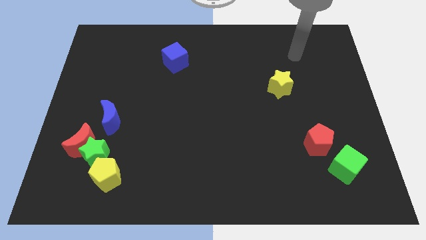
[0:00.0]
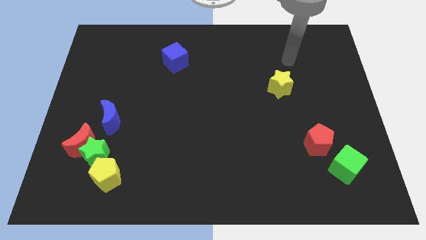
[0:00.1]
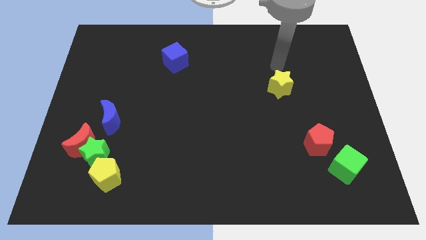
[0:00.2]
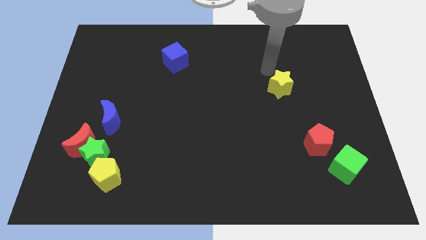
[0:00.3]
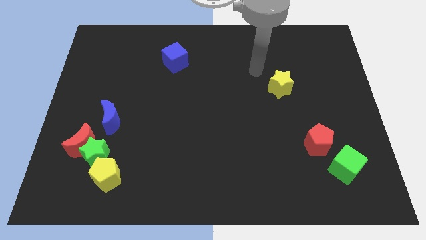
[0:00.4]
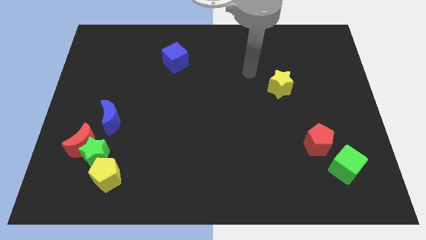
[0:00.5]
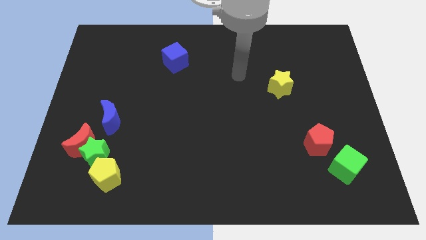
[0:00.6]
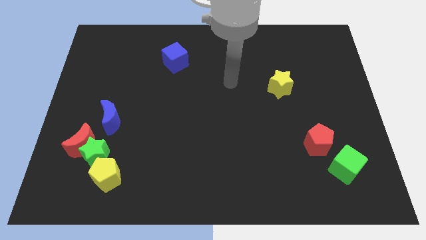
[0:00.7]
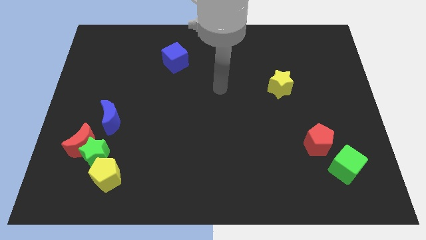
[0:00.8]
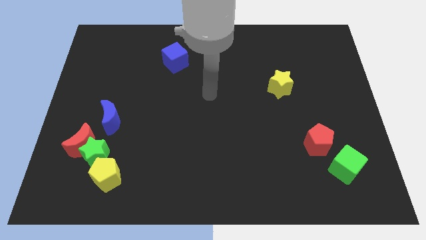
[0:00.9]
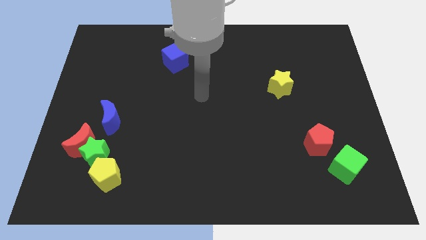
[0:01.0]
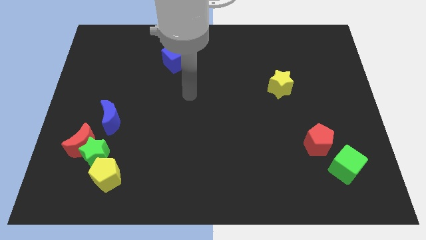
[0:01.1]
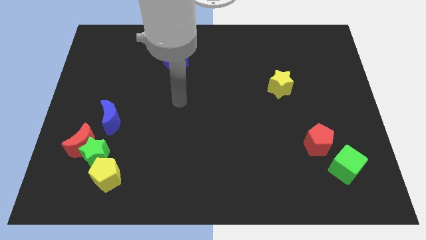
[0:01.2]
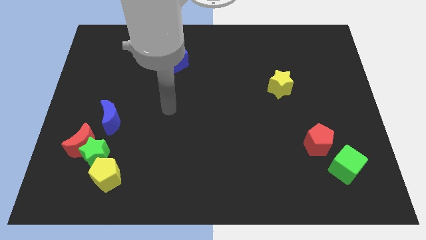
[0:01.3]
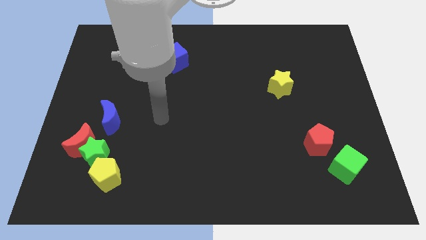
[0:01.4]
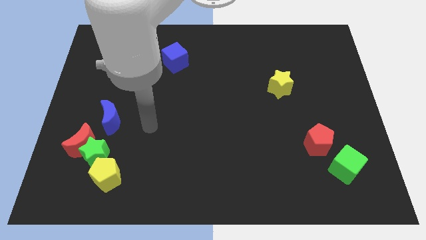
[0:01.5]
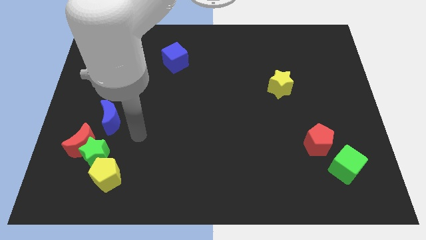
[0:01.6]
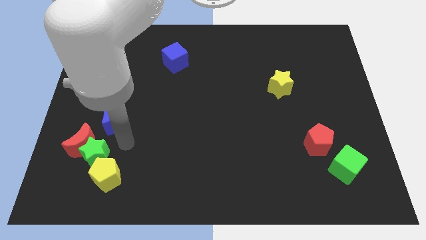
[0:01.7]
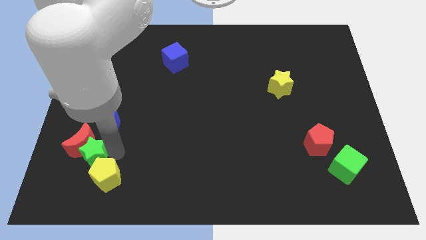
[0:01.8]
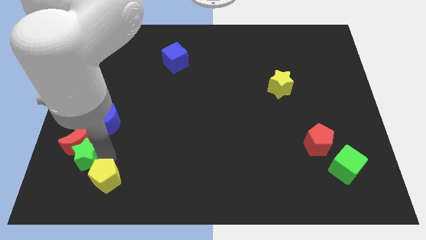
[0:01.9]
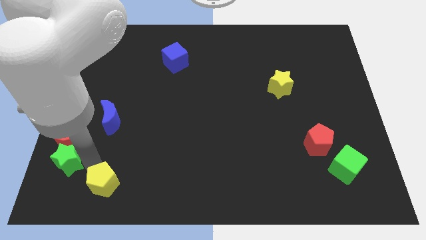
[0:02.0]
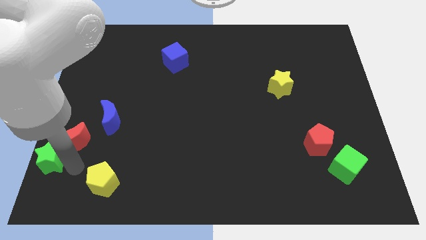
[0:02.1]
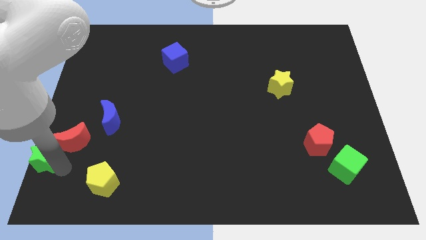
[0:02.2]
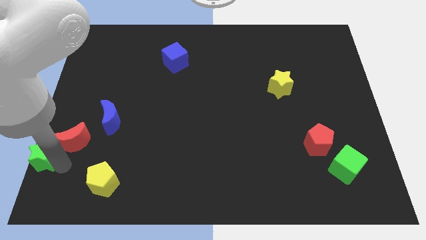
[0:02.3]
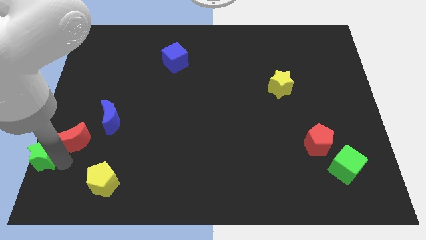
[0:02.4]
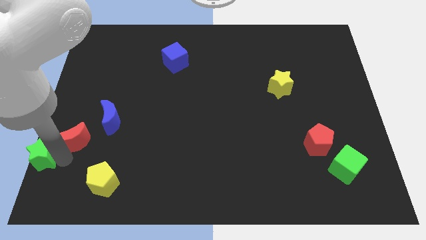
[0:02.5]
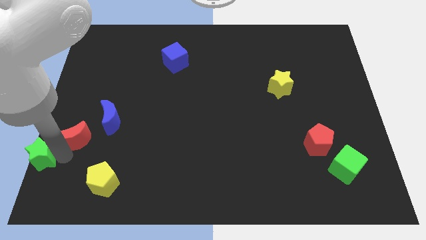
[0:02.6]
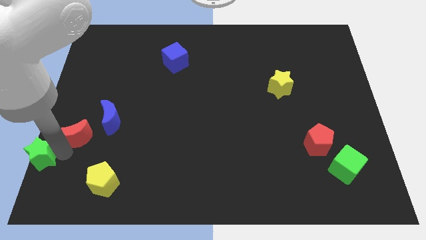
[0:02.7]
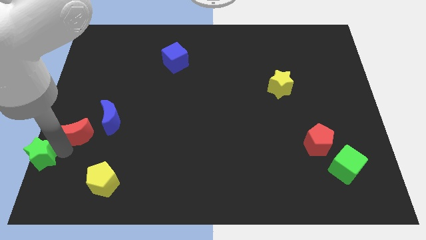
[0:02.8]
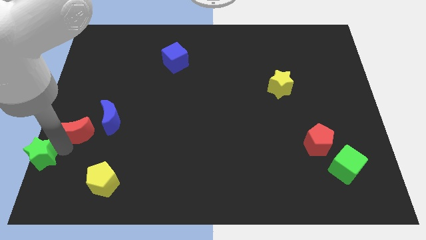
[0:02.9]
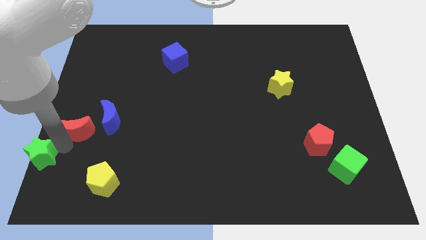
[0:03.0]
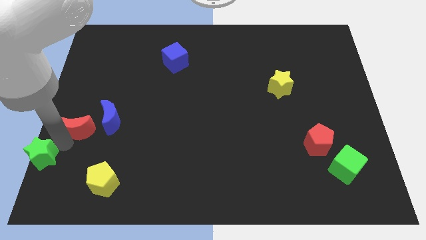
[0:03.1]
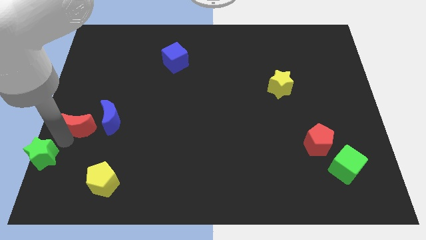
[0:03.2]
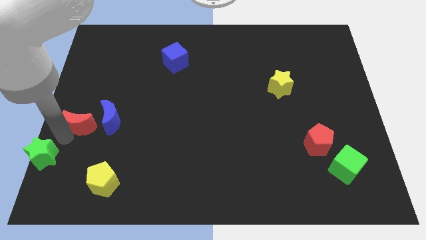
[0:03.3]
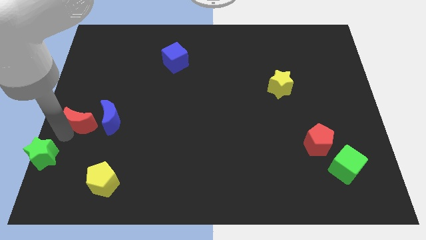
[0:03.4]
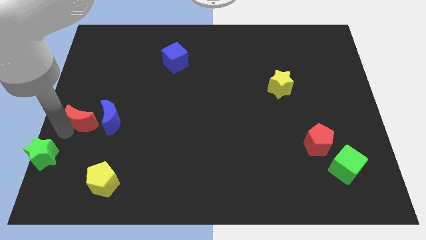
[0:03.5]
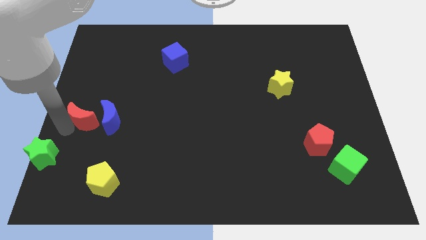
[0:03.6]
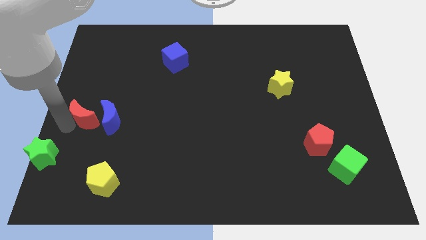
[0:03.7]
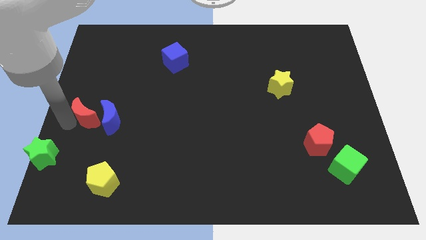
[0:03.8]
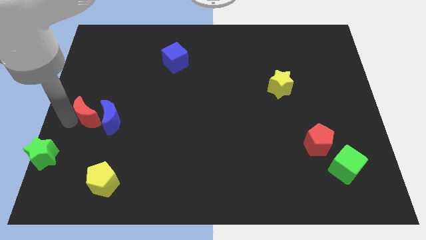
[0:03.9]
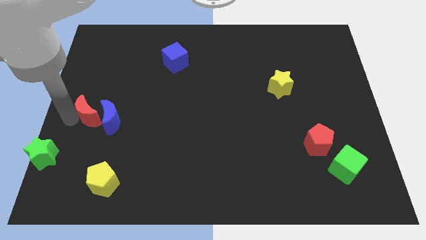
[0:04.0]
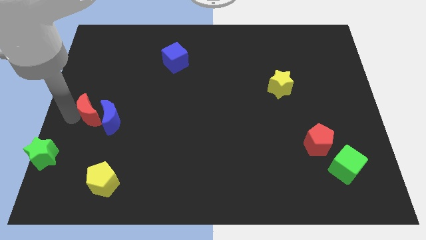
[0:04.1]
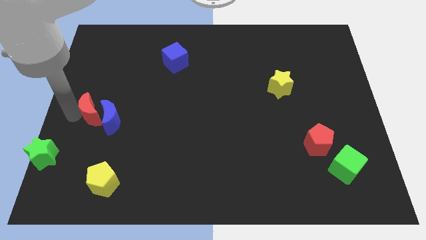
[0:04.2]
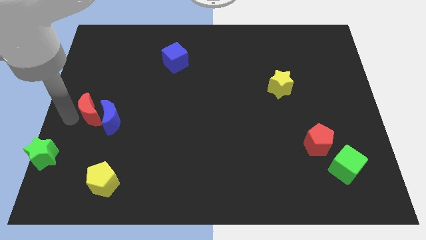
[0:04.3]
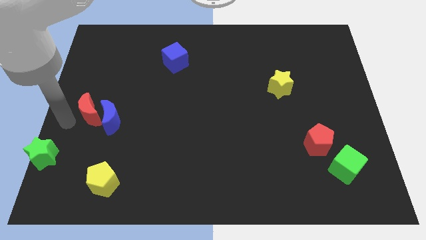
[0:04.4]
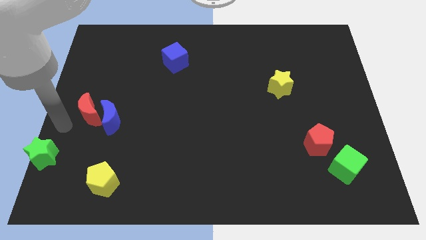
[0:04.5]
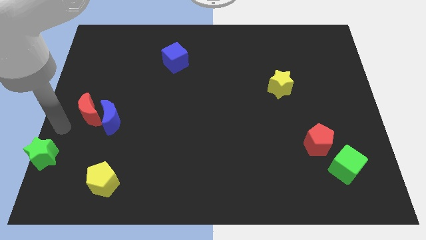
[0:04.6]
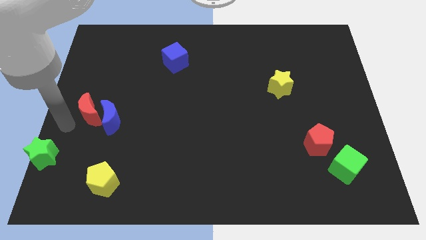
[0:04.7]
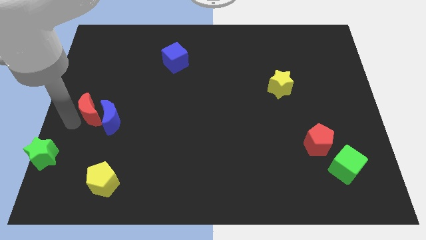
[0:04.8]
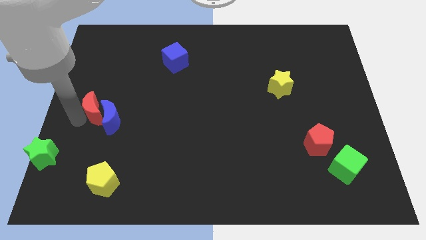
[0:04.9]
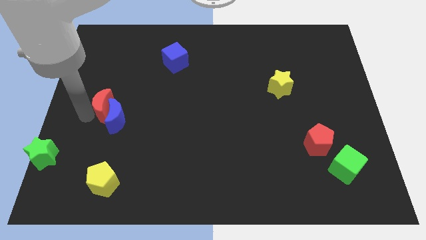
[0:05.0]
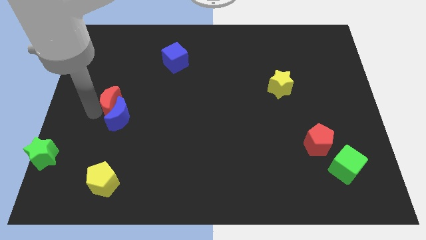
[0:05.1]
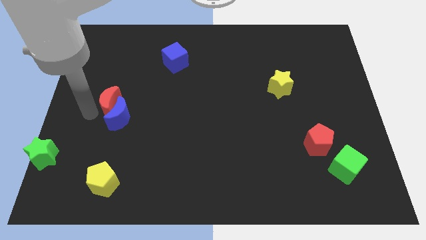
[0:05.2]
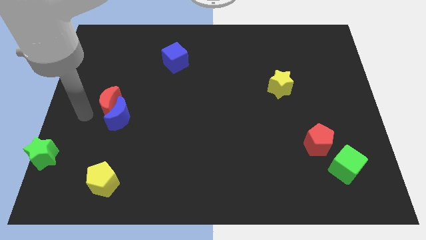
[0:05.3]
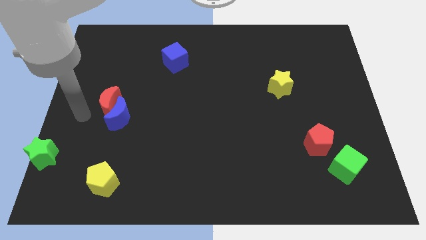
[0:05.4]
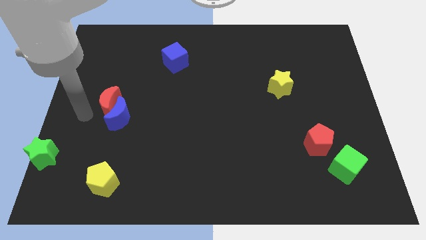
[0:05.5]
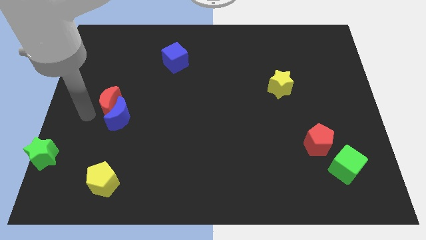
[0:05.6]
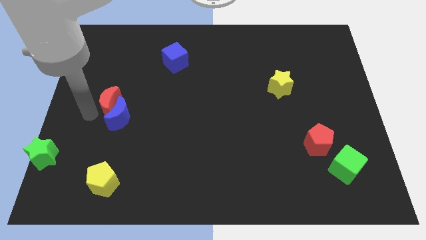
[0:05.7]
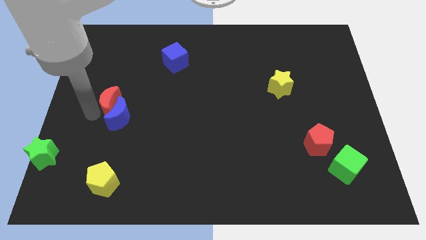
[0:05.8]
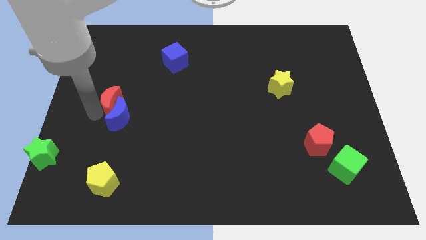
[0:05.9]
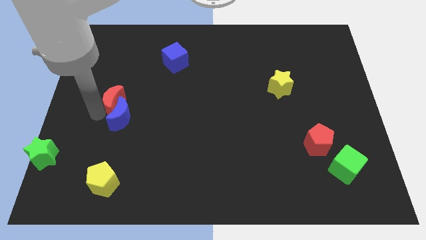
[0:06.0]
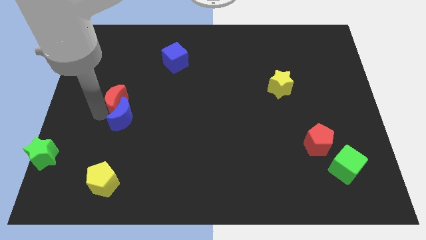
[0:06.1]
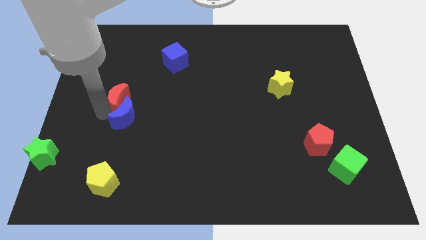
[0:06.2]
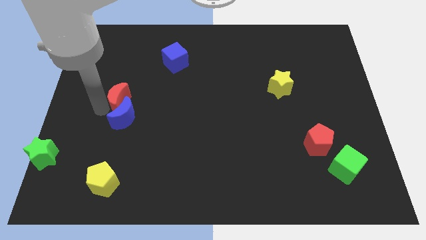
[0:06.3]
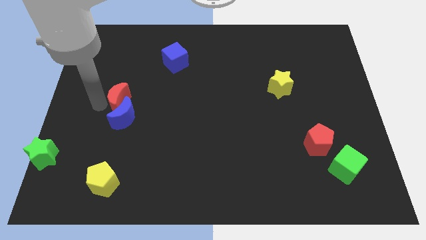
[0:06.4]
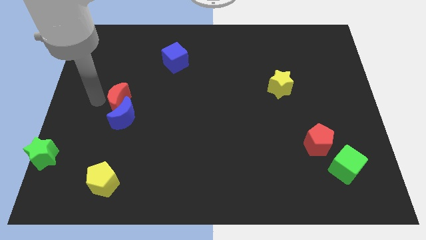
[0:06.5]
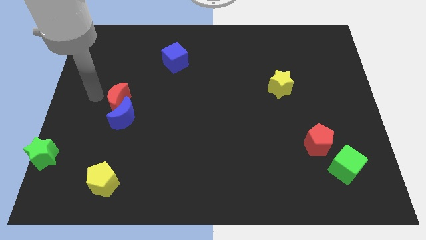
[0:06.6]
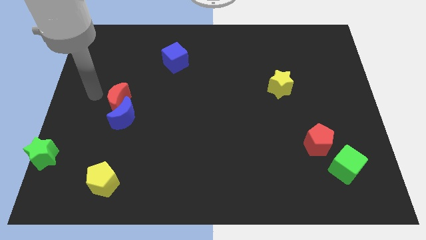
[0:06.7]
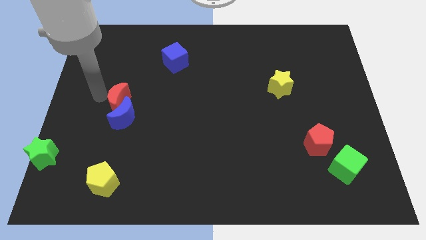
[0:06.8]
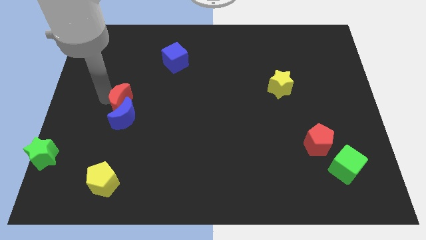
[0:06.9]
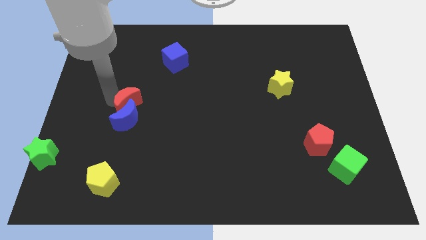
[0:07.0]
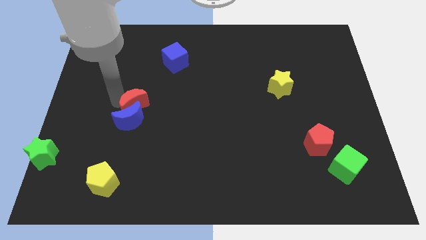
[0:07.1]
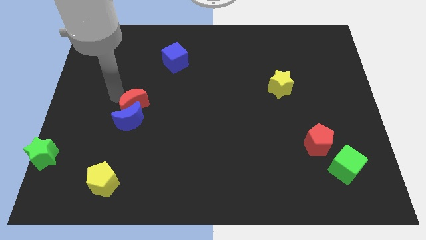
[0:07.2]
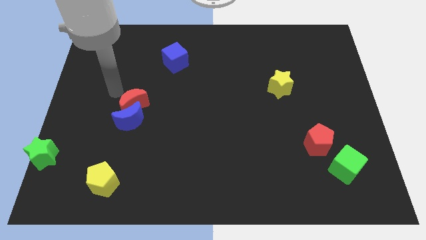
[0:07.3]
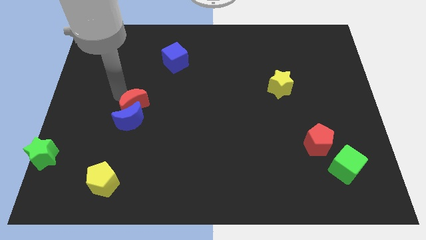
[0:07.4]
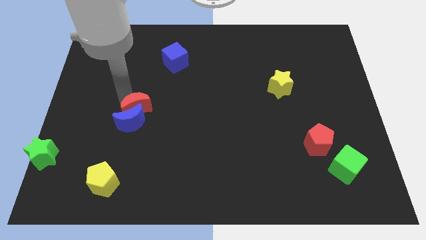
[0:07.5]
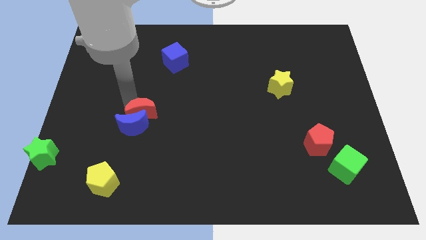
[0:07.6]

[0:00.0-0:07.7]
slightly move the red moon right

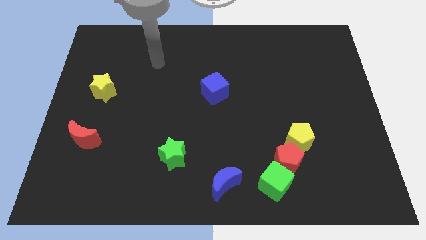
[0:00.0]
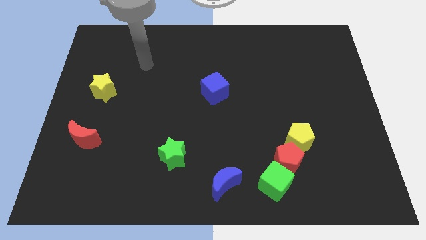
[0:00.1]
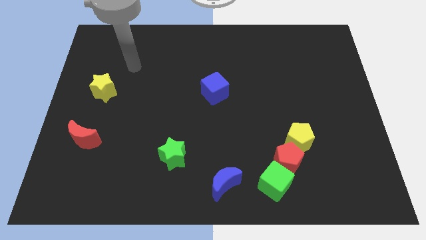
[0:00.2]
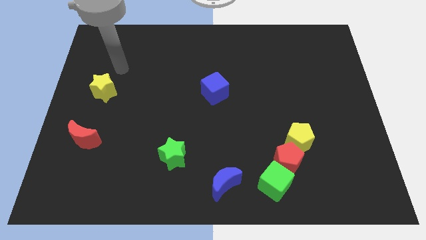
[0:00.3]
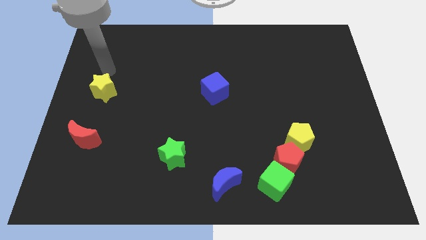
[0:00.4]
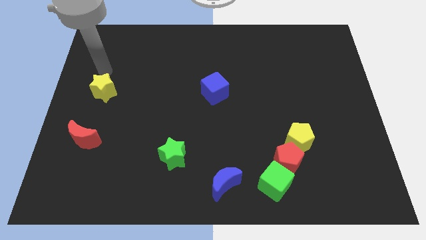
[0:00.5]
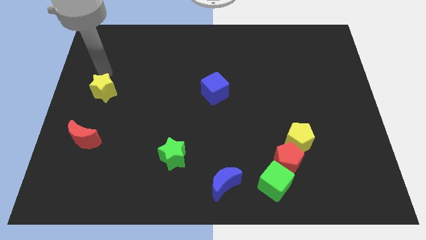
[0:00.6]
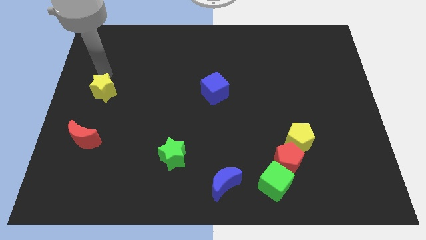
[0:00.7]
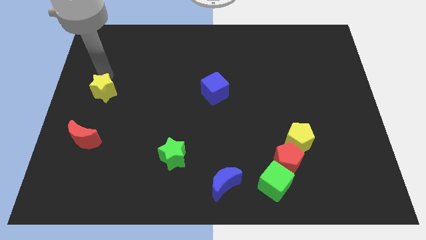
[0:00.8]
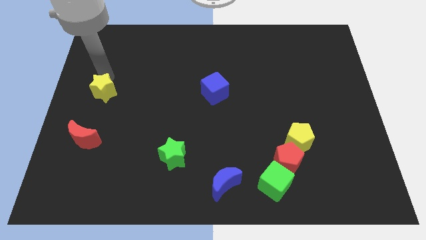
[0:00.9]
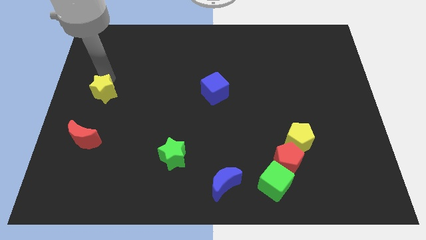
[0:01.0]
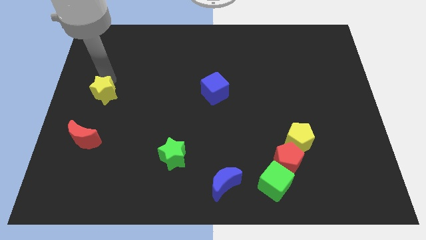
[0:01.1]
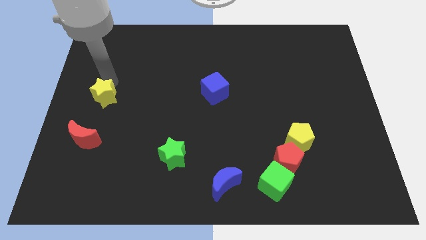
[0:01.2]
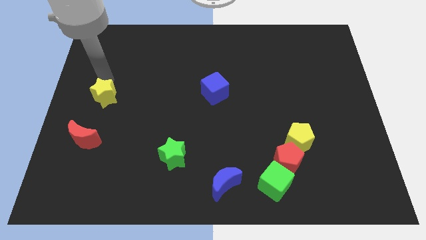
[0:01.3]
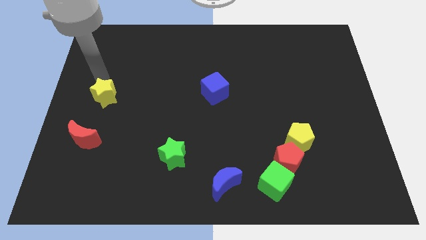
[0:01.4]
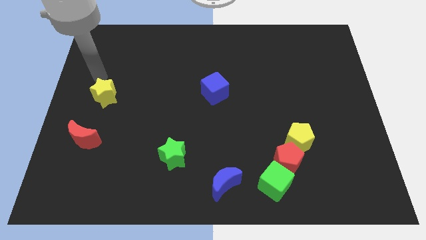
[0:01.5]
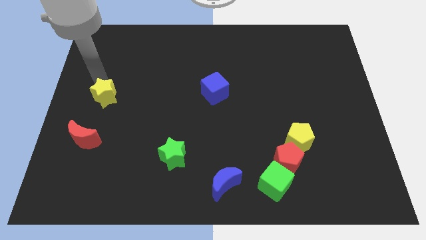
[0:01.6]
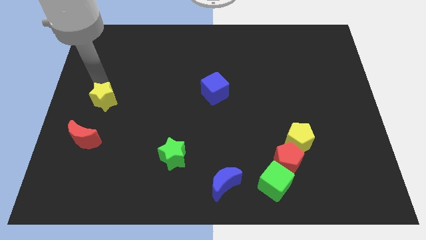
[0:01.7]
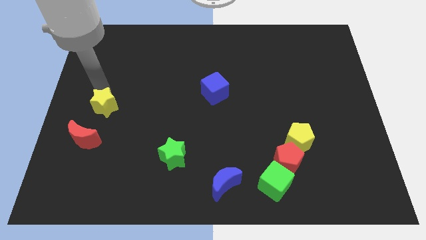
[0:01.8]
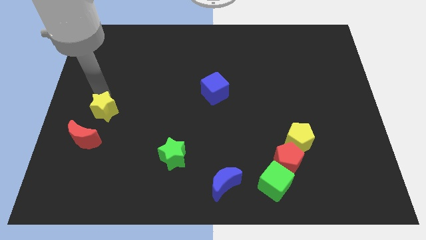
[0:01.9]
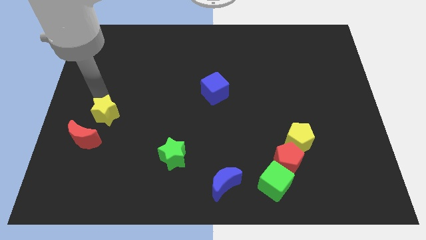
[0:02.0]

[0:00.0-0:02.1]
push the yellow star downwards a little bit
